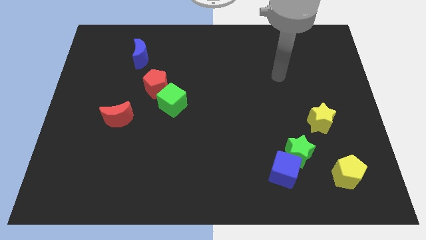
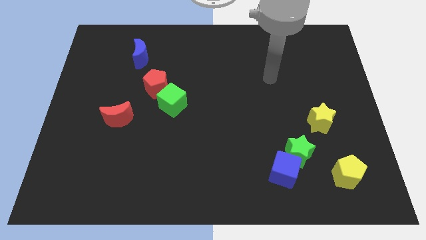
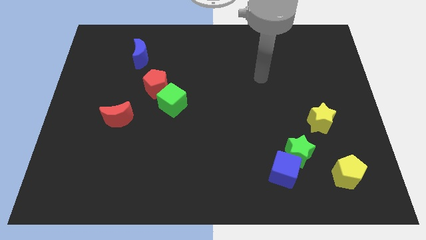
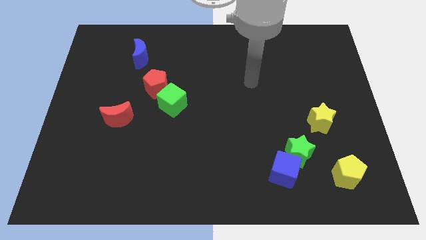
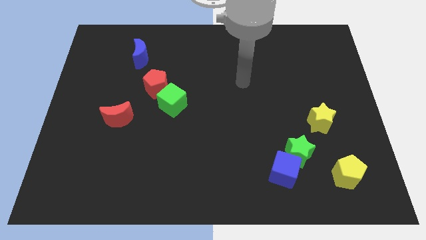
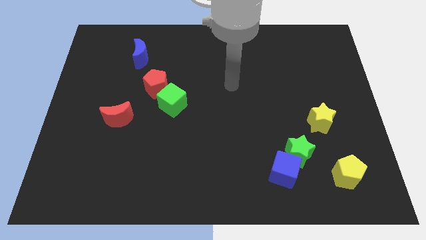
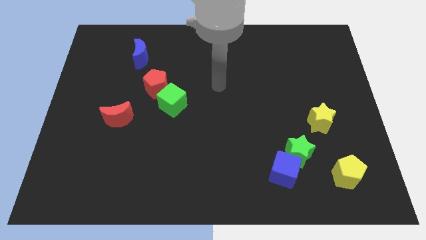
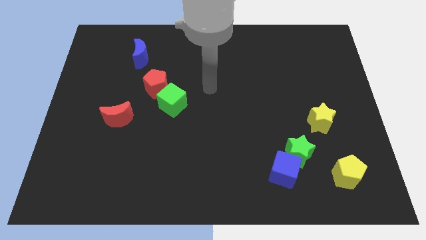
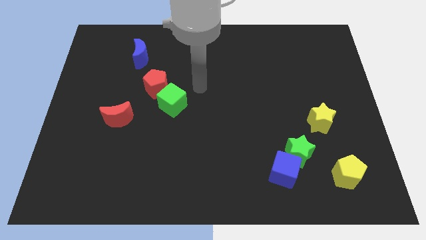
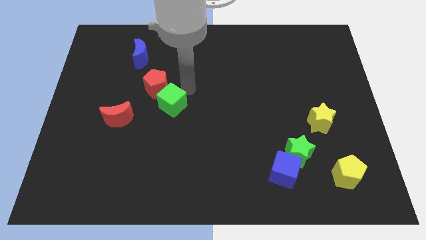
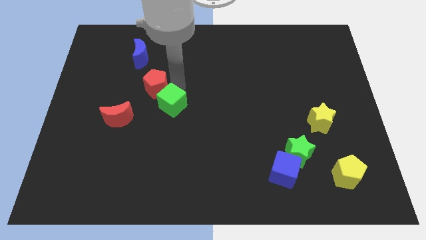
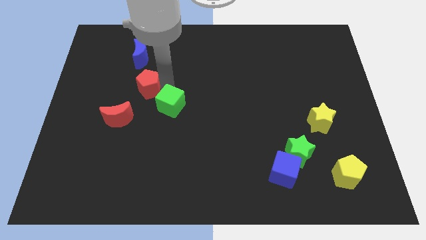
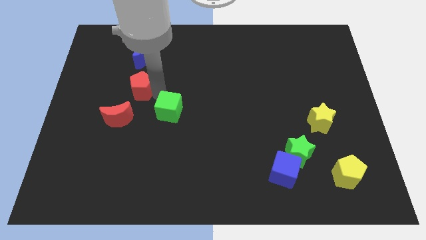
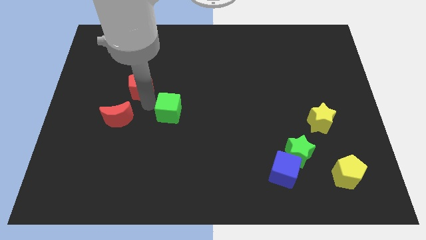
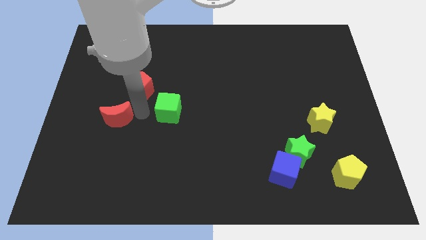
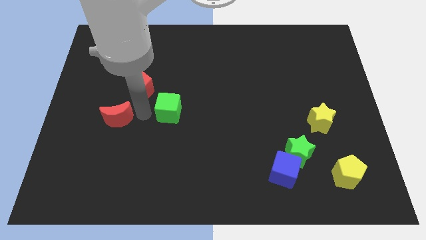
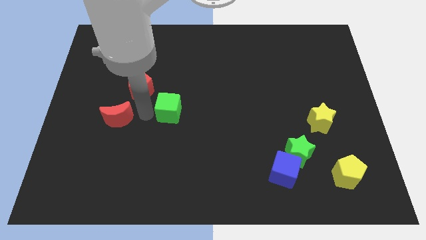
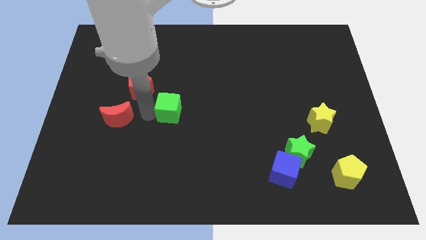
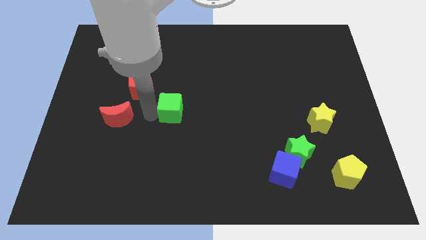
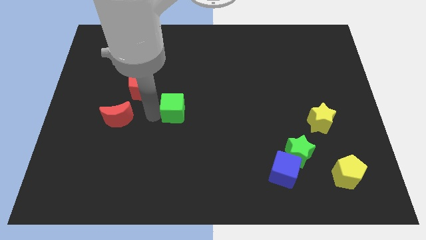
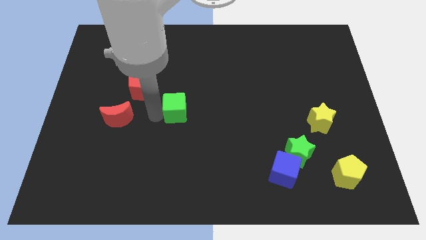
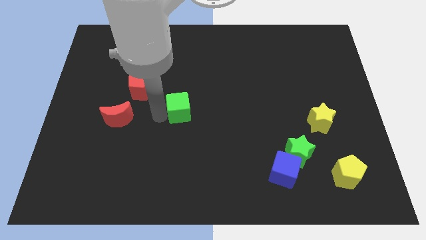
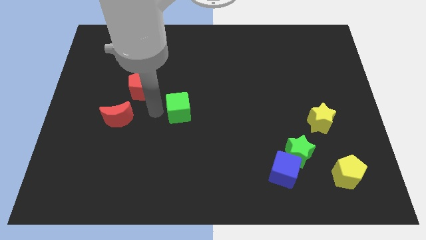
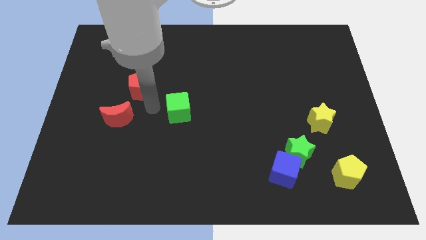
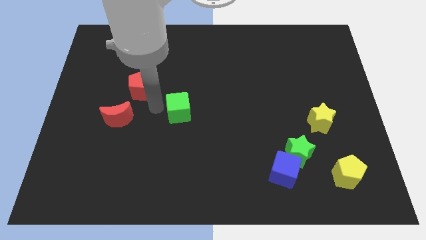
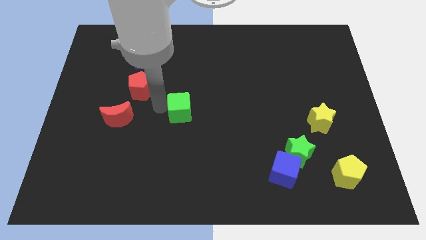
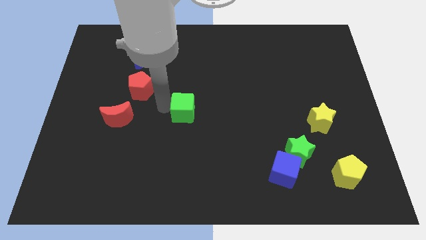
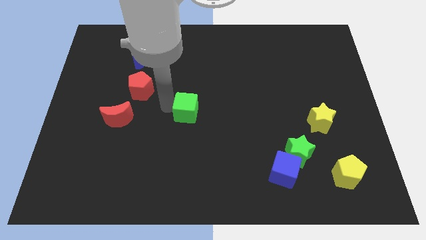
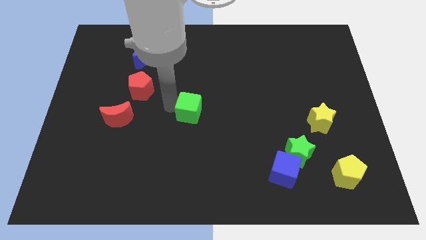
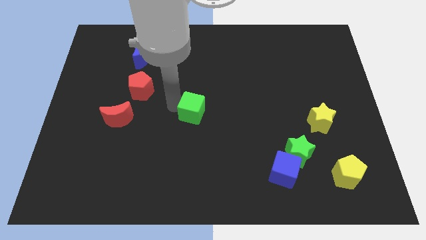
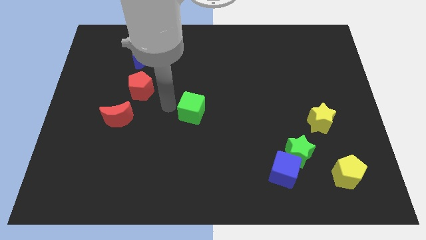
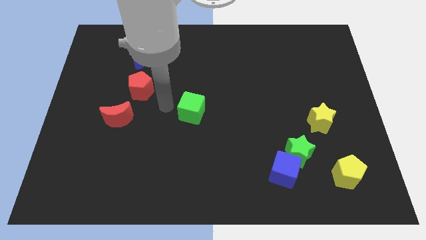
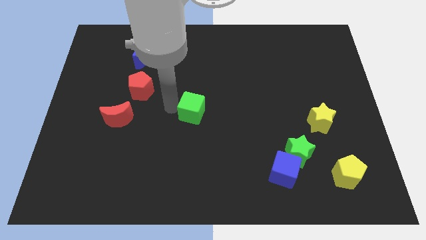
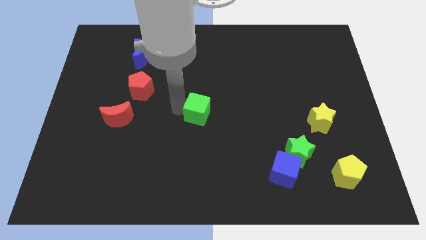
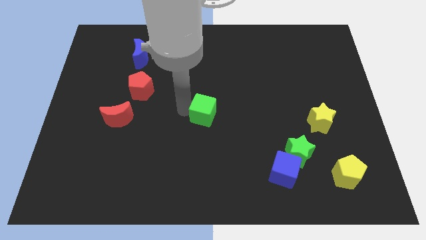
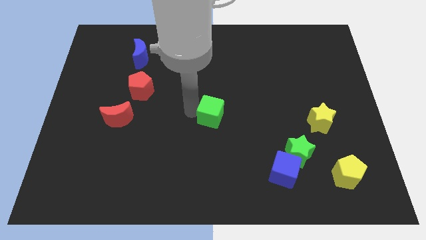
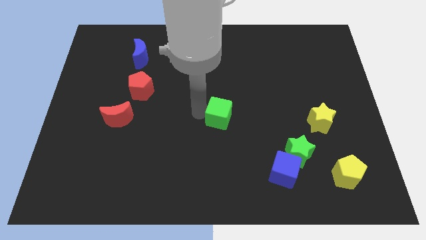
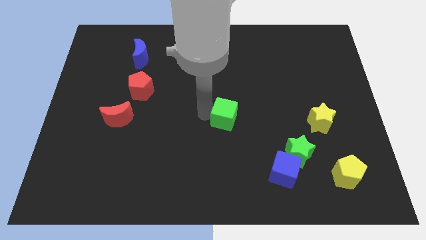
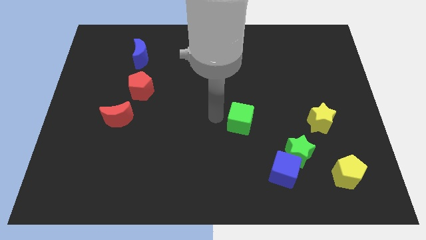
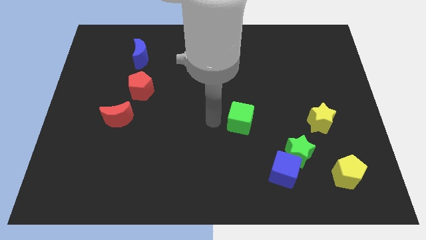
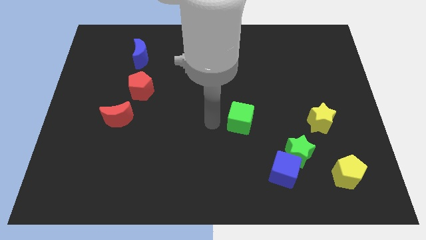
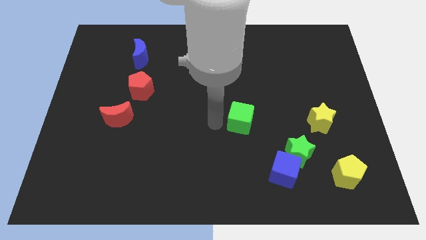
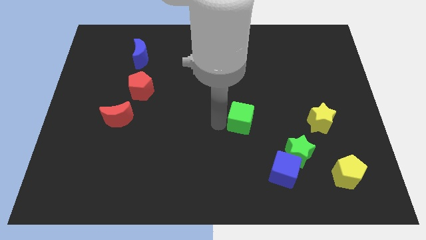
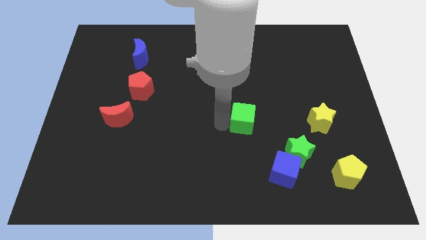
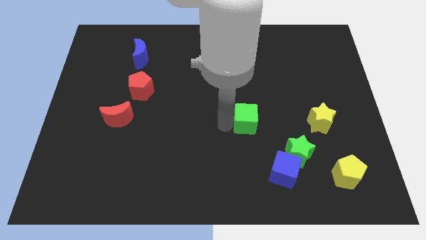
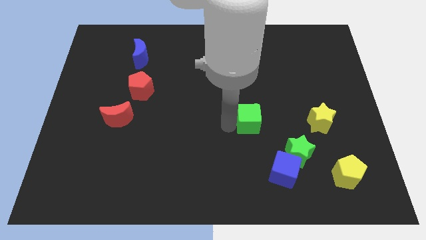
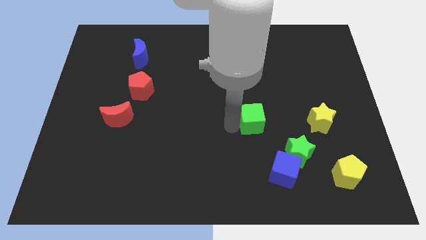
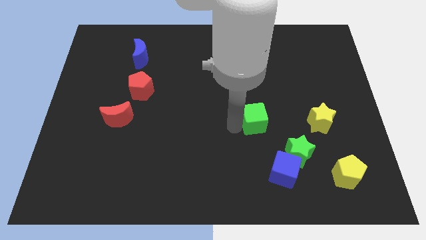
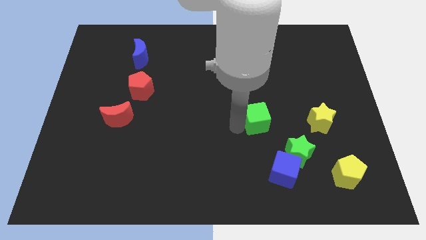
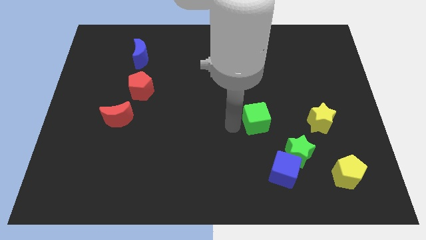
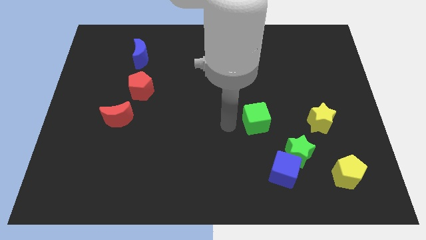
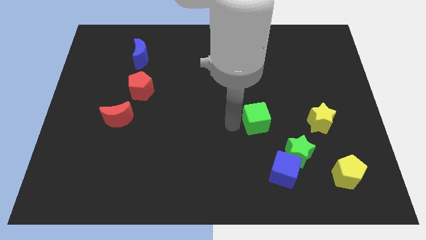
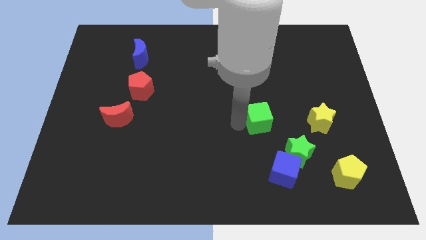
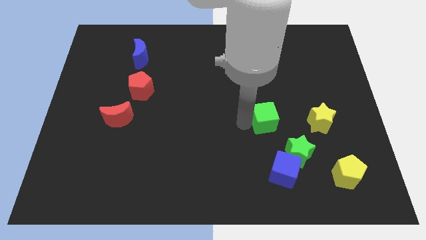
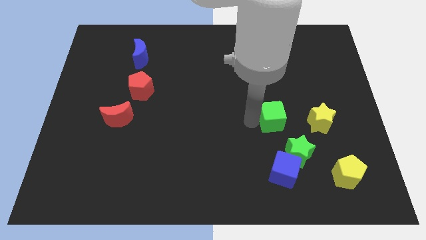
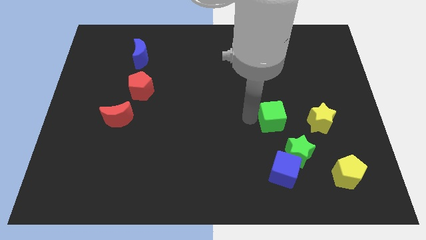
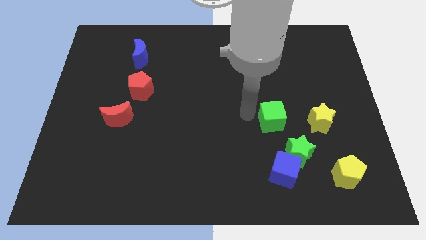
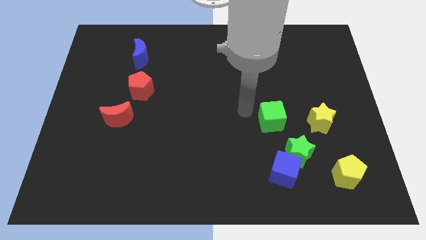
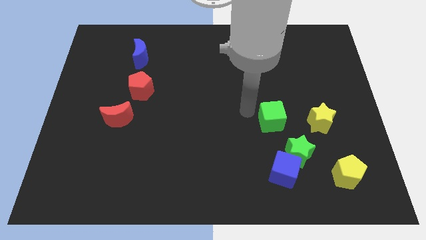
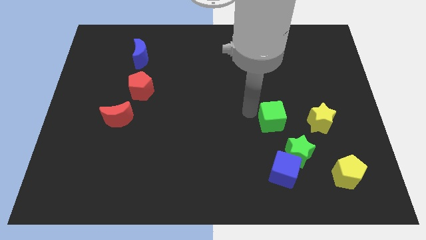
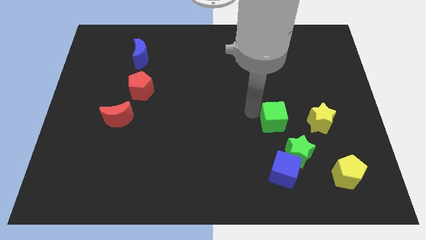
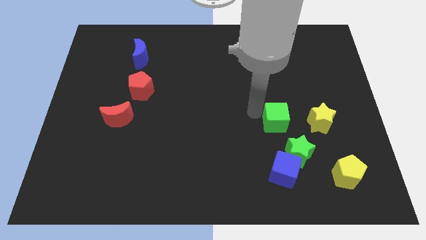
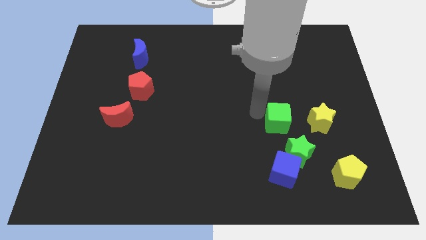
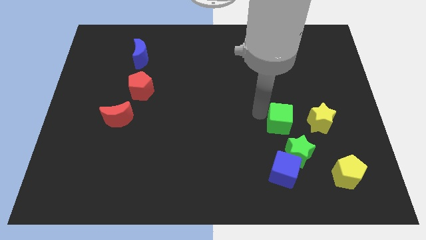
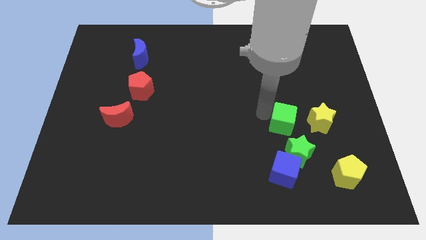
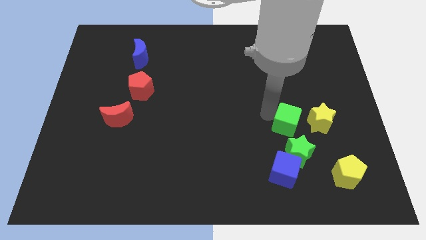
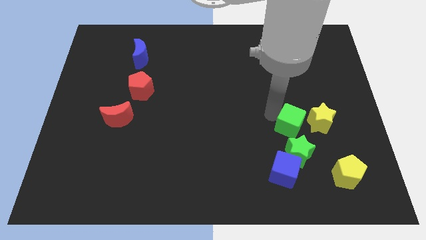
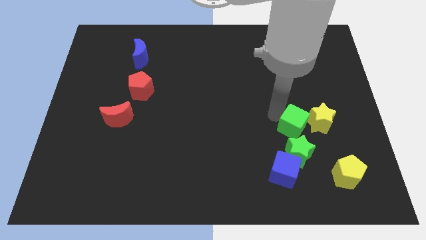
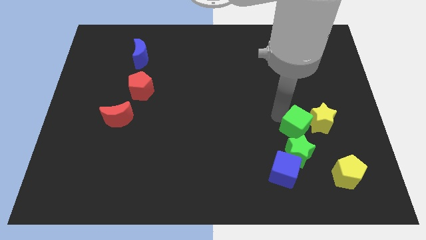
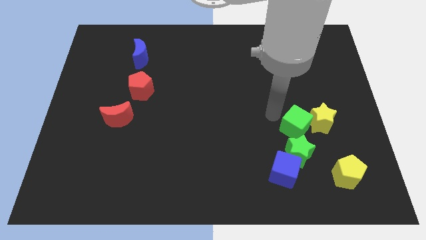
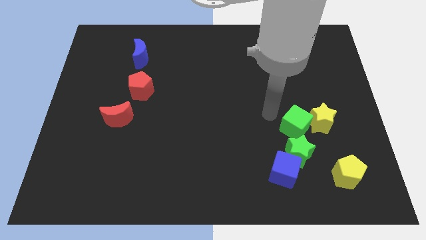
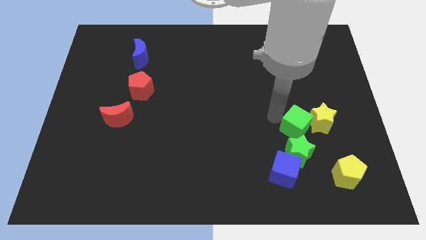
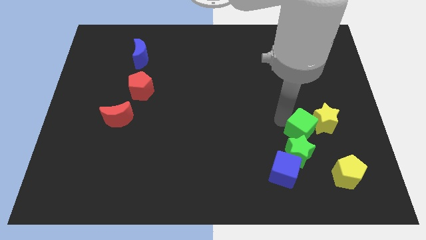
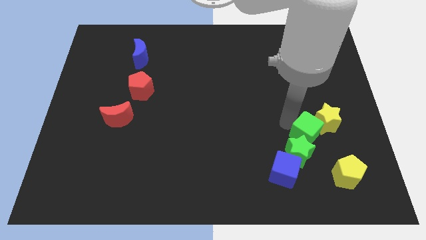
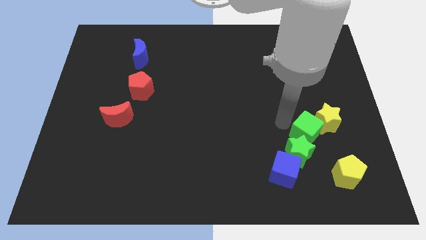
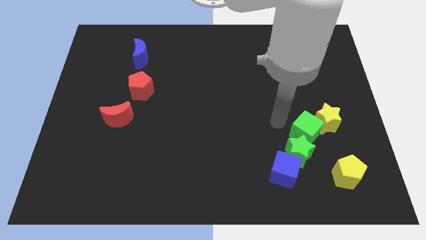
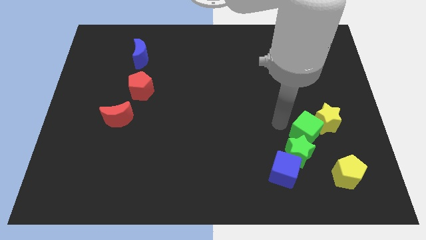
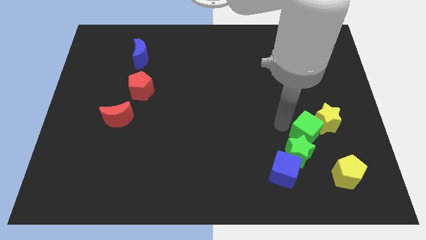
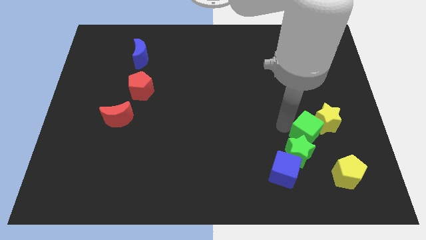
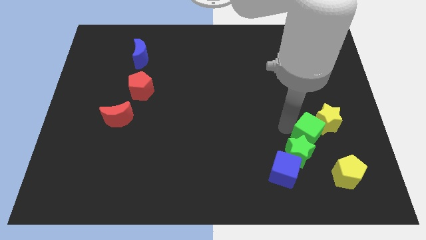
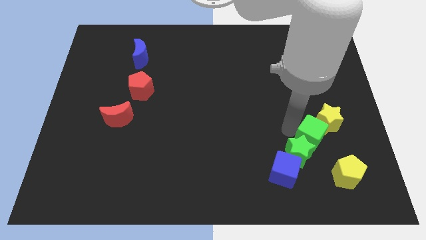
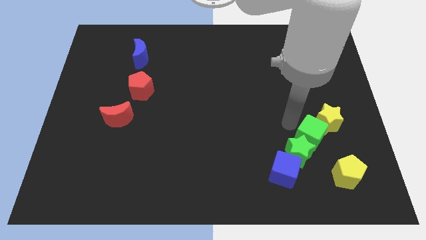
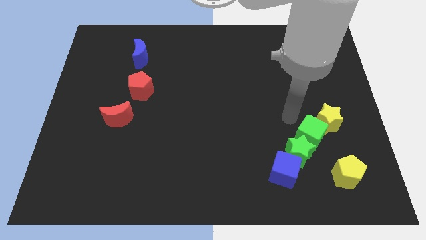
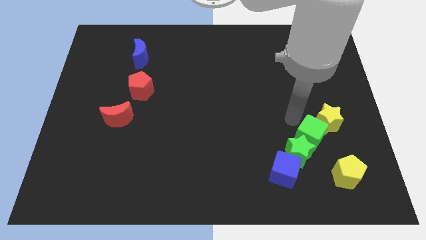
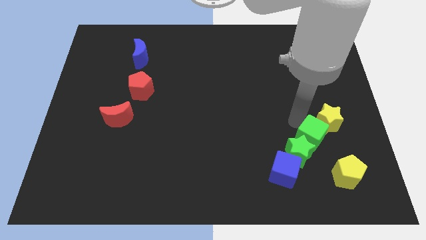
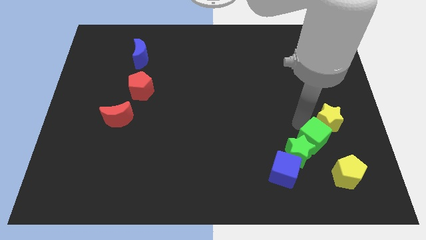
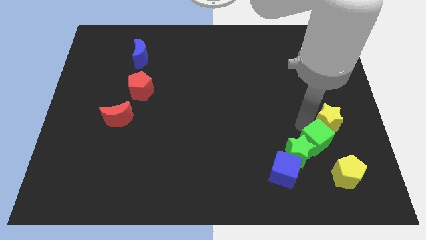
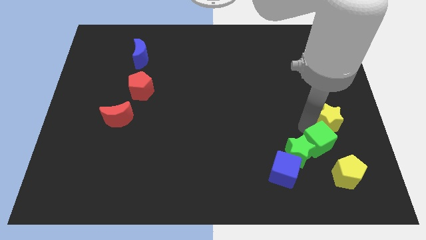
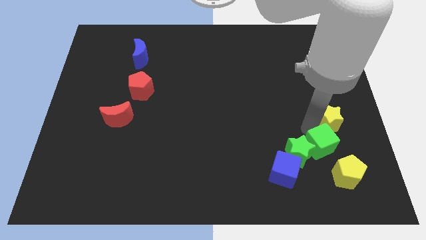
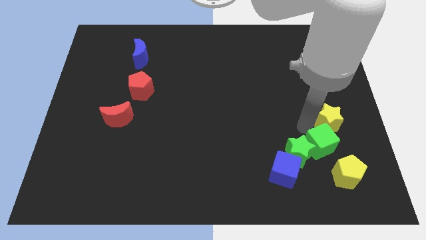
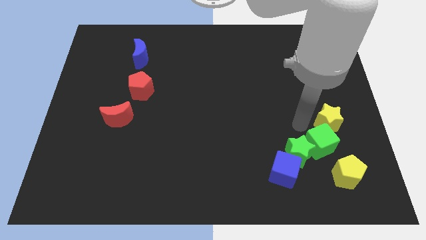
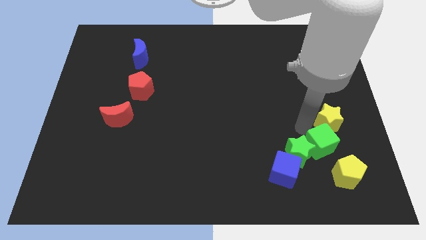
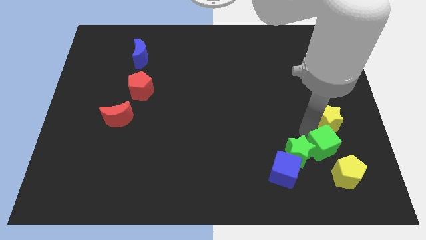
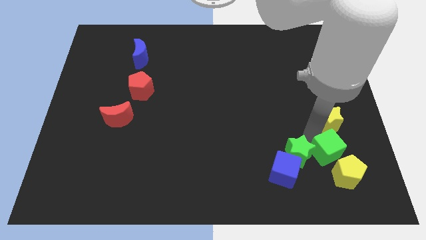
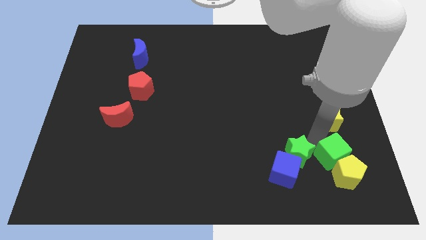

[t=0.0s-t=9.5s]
slide the green cube towards the yellow pentagon
